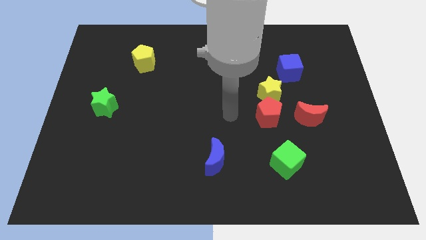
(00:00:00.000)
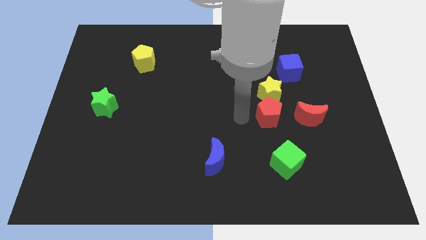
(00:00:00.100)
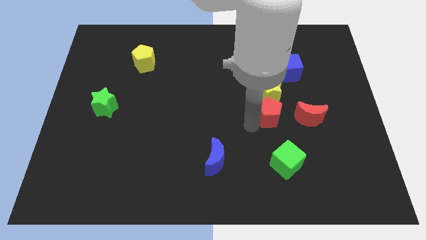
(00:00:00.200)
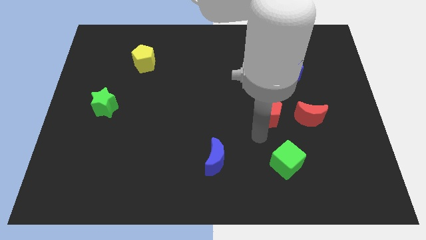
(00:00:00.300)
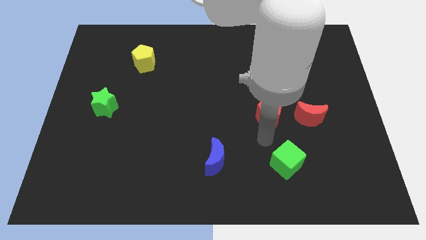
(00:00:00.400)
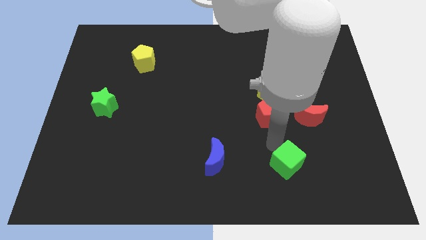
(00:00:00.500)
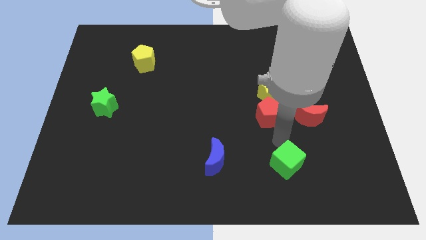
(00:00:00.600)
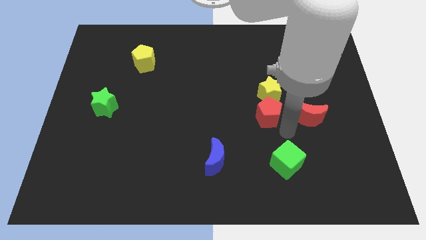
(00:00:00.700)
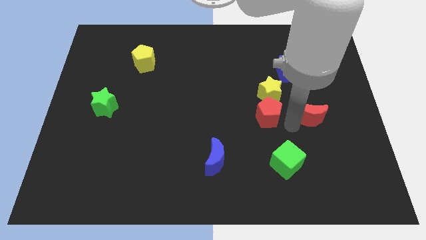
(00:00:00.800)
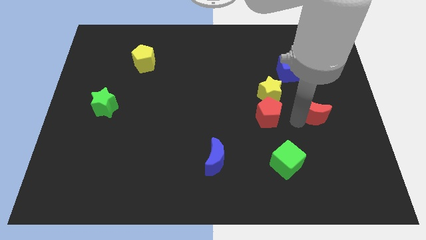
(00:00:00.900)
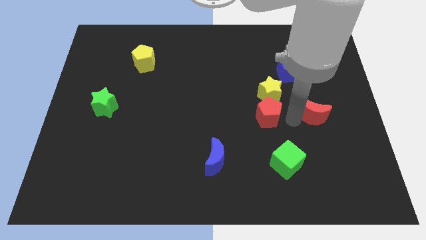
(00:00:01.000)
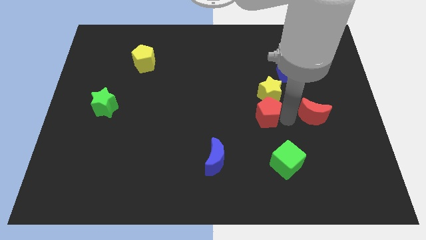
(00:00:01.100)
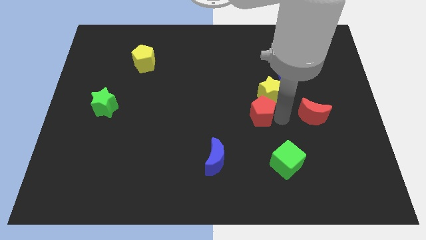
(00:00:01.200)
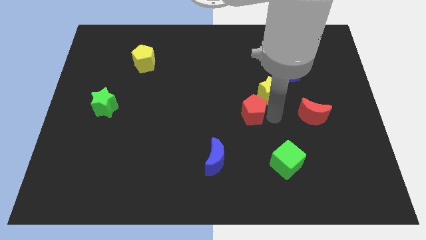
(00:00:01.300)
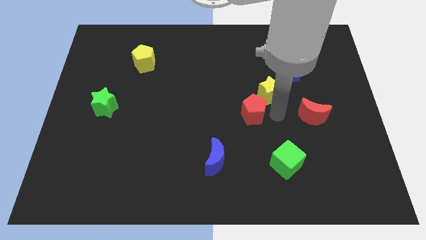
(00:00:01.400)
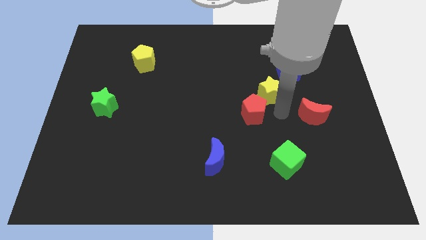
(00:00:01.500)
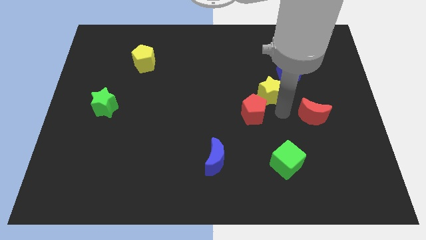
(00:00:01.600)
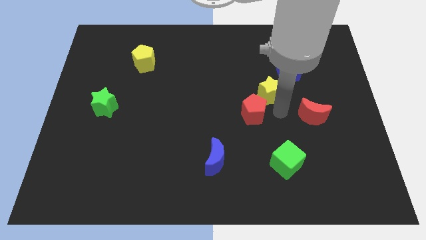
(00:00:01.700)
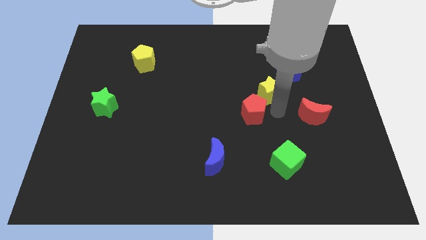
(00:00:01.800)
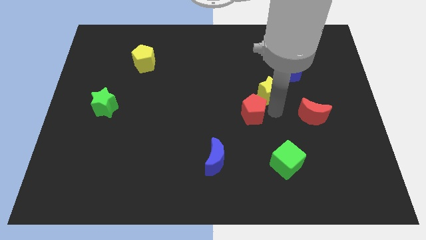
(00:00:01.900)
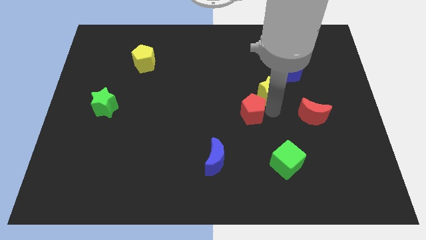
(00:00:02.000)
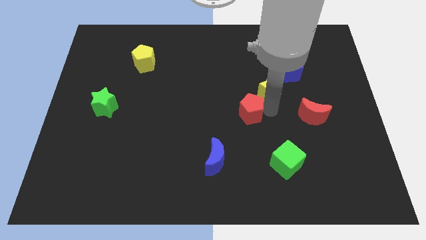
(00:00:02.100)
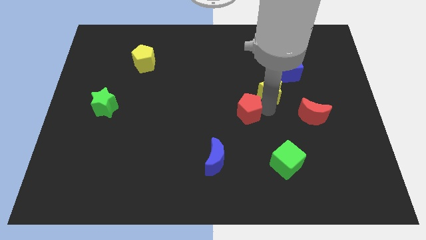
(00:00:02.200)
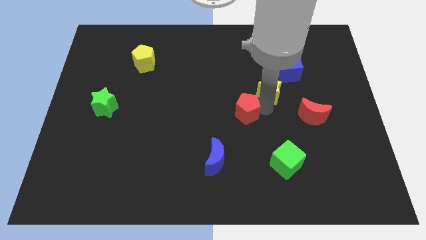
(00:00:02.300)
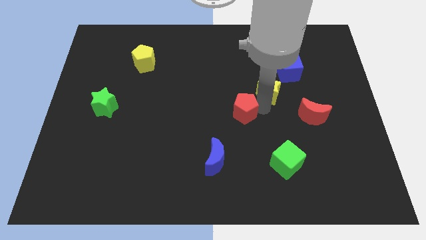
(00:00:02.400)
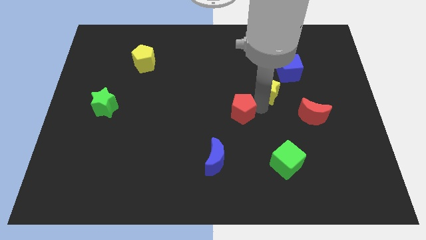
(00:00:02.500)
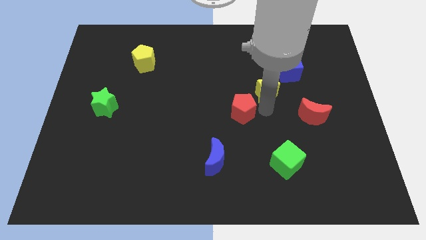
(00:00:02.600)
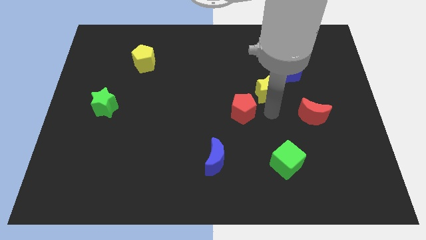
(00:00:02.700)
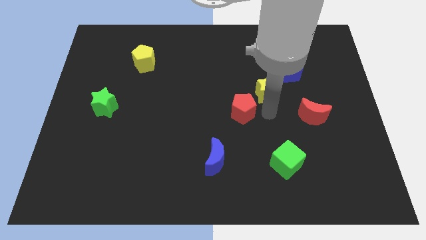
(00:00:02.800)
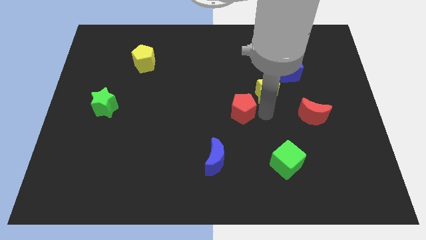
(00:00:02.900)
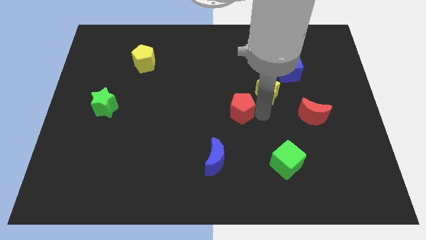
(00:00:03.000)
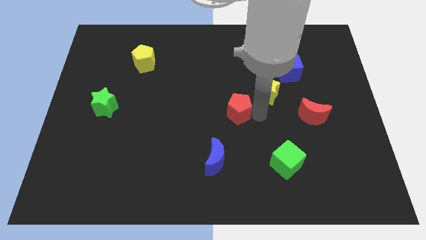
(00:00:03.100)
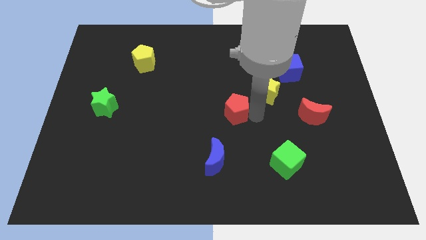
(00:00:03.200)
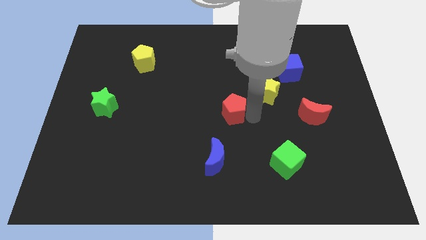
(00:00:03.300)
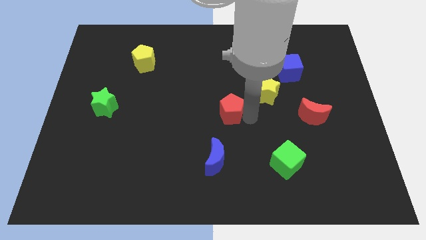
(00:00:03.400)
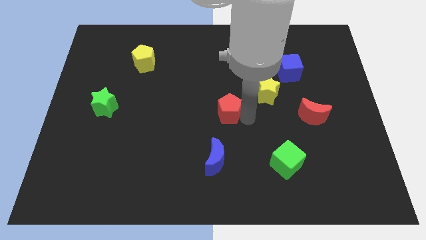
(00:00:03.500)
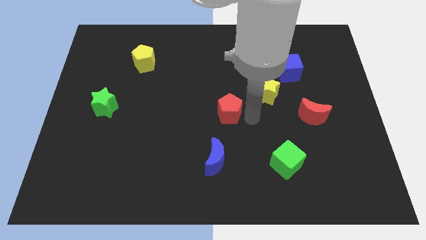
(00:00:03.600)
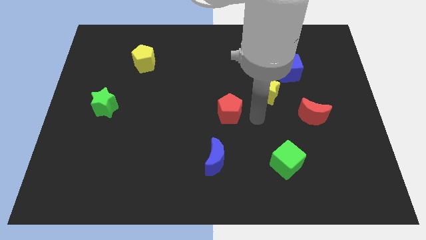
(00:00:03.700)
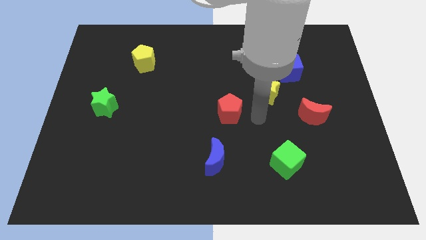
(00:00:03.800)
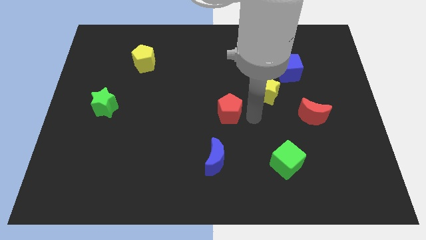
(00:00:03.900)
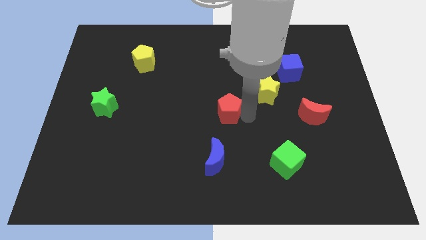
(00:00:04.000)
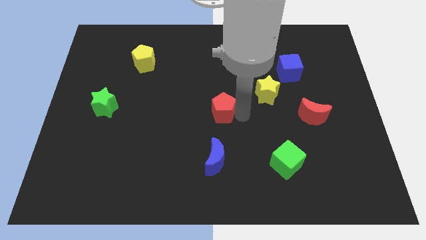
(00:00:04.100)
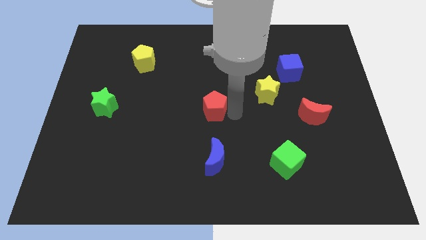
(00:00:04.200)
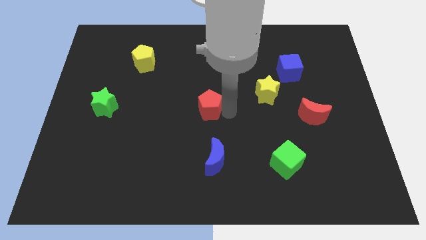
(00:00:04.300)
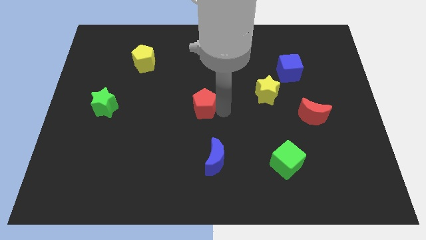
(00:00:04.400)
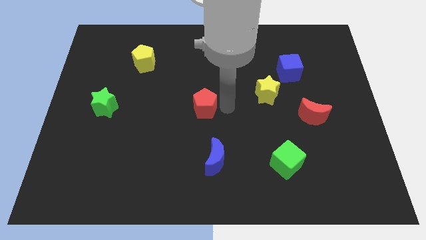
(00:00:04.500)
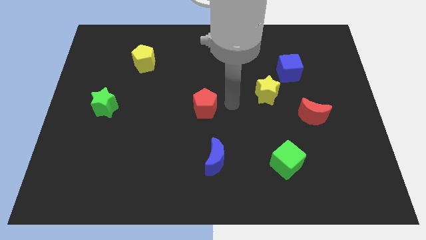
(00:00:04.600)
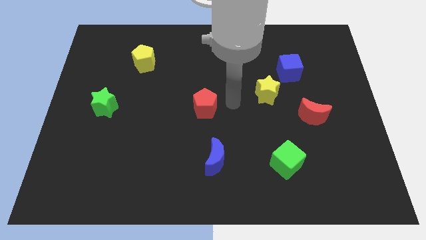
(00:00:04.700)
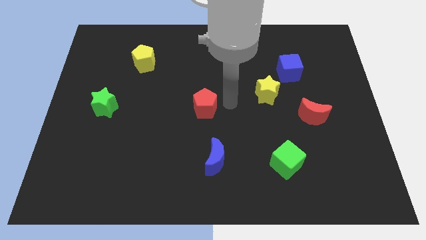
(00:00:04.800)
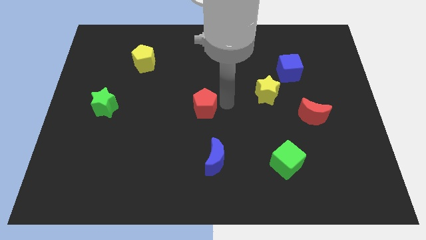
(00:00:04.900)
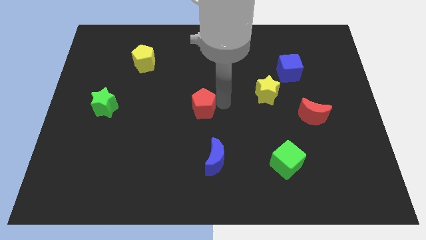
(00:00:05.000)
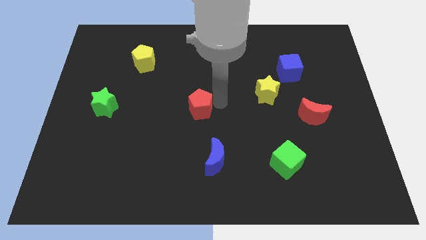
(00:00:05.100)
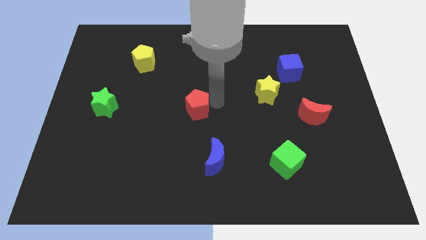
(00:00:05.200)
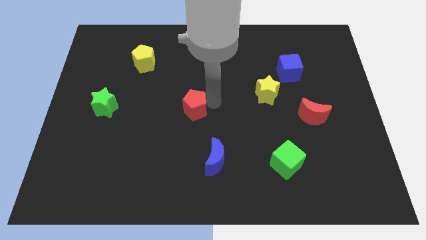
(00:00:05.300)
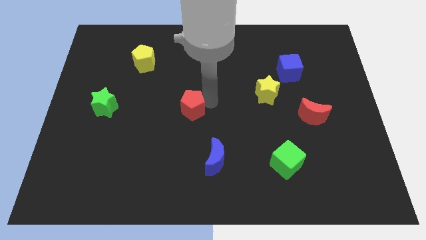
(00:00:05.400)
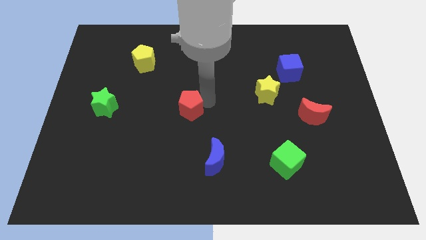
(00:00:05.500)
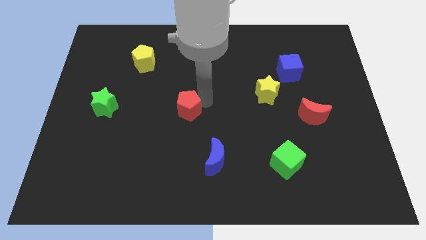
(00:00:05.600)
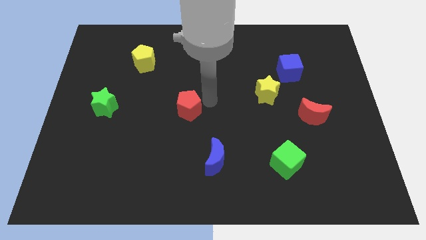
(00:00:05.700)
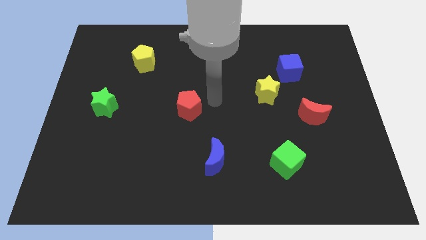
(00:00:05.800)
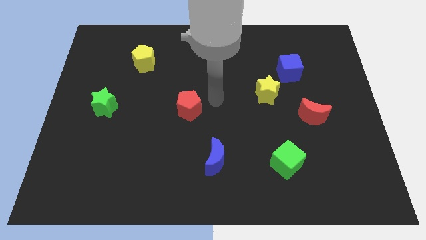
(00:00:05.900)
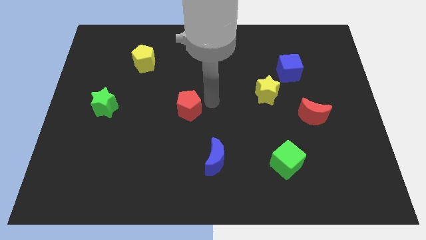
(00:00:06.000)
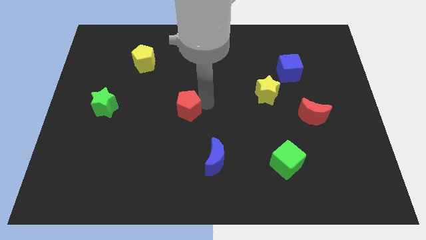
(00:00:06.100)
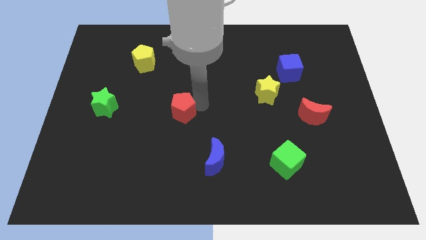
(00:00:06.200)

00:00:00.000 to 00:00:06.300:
slide the red pentagon to the left

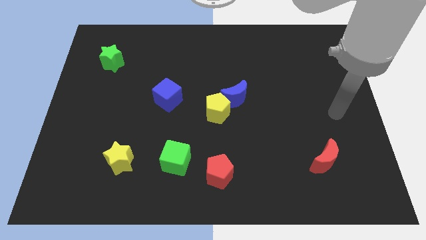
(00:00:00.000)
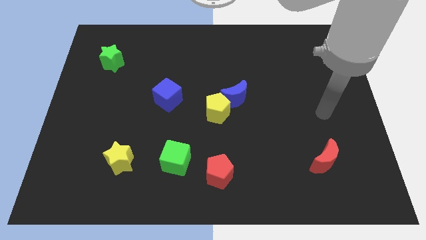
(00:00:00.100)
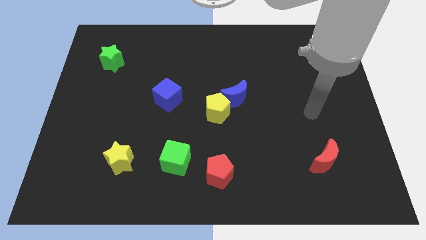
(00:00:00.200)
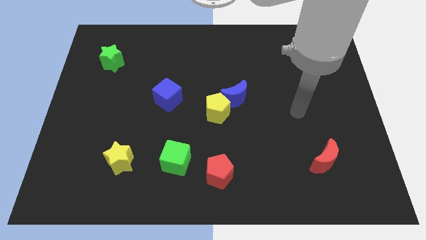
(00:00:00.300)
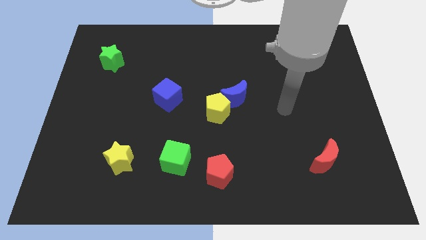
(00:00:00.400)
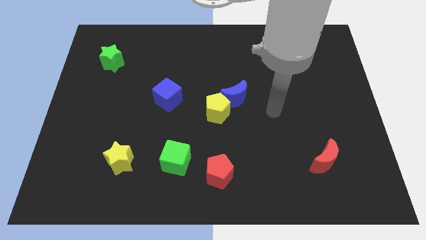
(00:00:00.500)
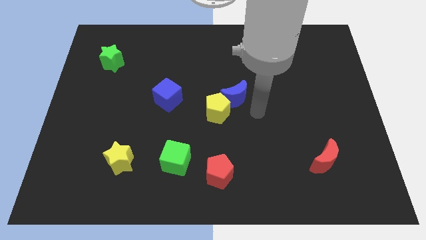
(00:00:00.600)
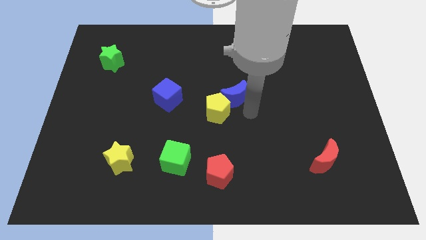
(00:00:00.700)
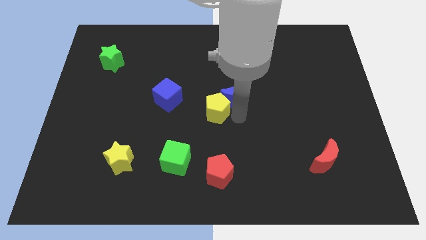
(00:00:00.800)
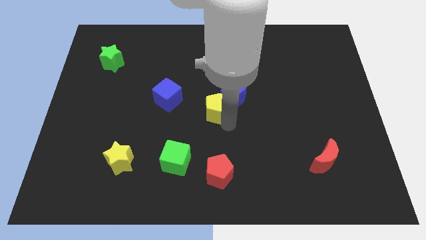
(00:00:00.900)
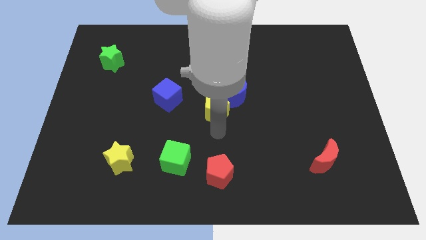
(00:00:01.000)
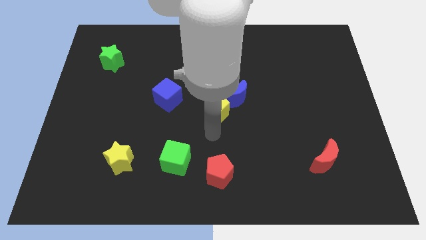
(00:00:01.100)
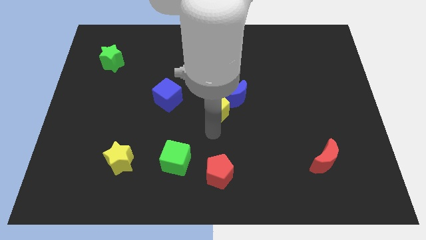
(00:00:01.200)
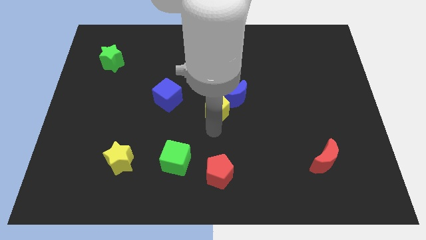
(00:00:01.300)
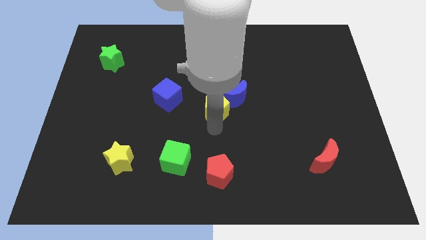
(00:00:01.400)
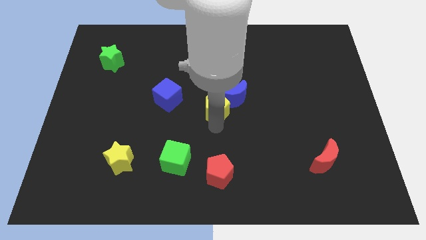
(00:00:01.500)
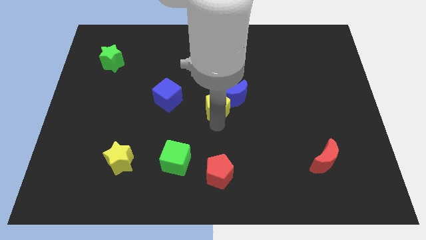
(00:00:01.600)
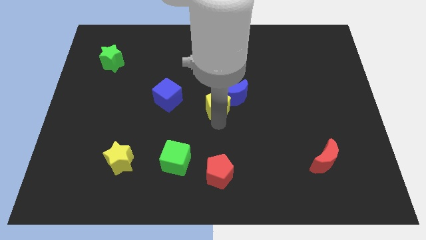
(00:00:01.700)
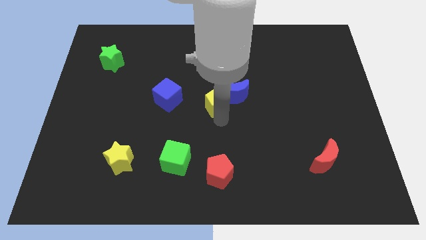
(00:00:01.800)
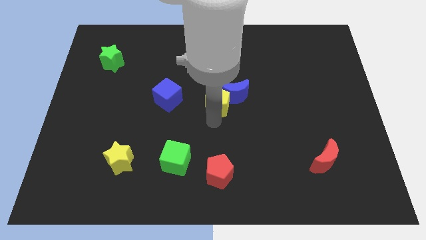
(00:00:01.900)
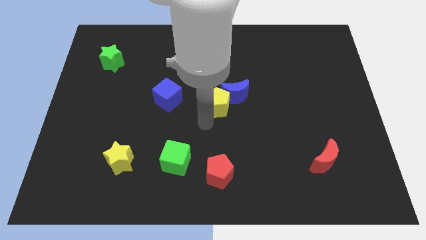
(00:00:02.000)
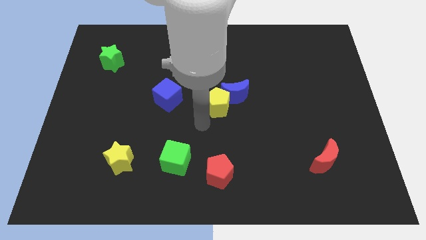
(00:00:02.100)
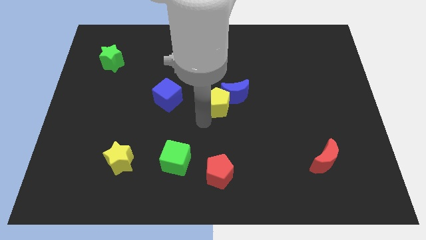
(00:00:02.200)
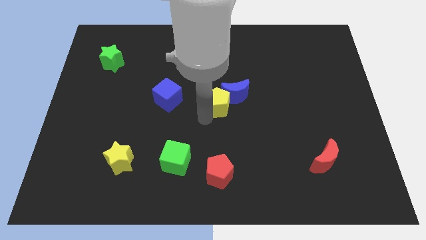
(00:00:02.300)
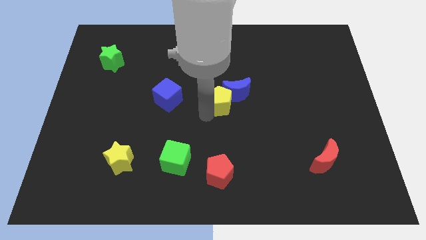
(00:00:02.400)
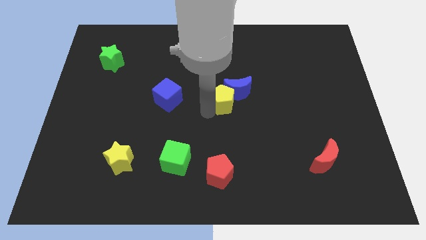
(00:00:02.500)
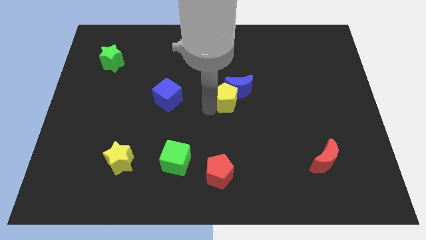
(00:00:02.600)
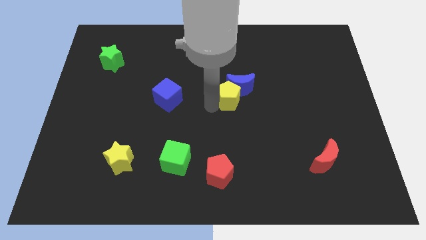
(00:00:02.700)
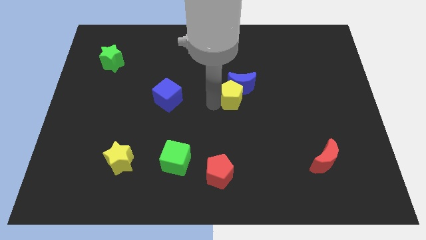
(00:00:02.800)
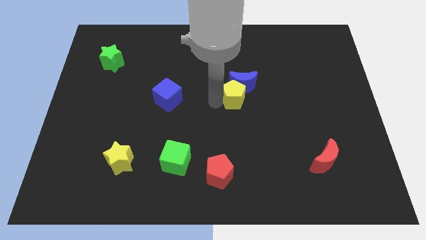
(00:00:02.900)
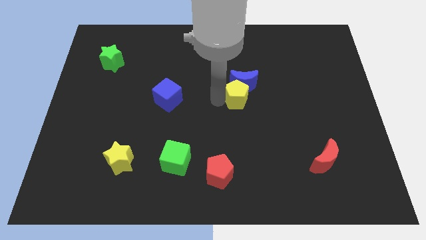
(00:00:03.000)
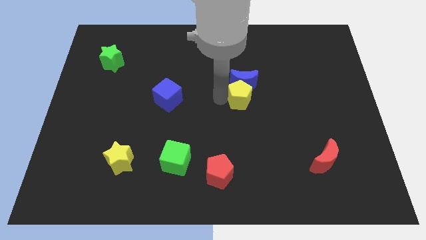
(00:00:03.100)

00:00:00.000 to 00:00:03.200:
slightly move the yellow pentagon diagonally upwards and to the right
